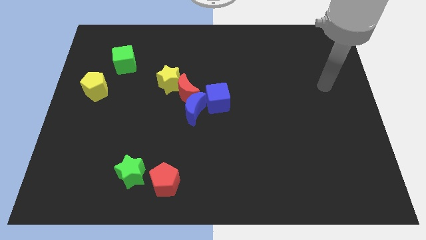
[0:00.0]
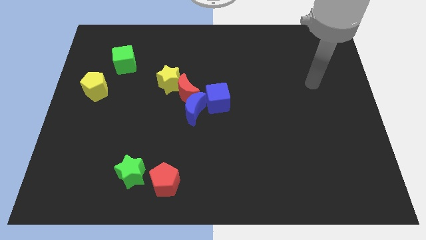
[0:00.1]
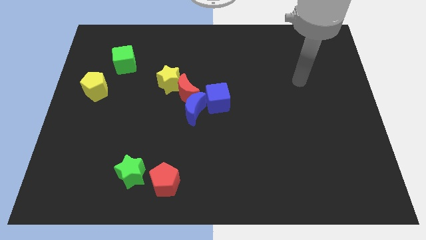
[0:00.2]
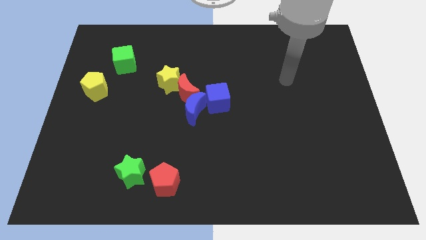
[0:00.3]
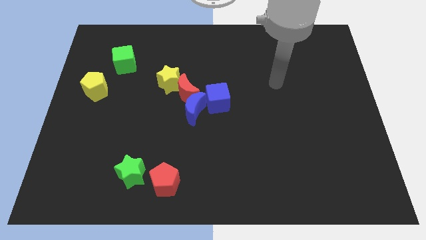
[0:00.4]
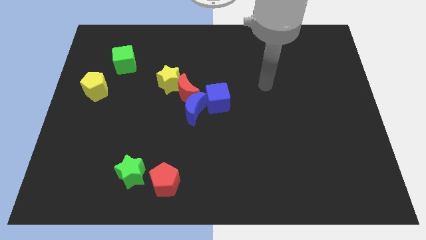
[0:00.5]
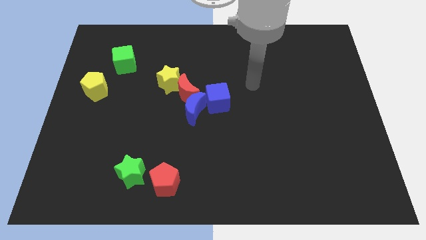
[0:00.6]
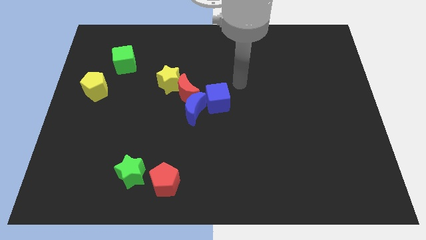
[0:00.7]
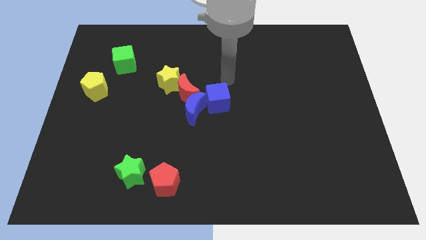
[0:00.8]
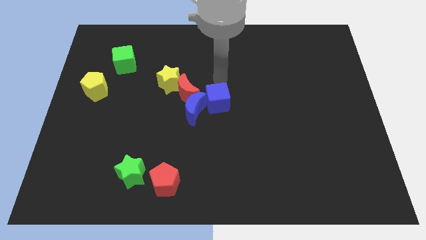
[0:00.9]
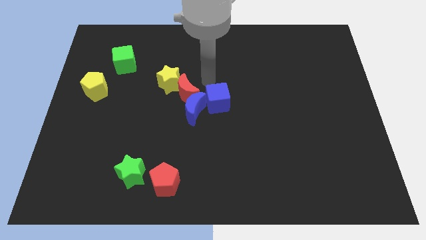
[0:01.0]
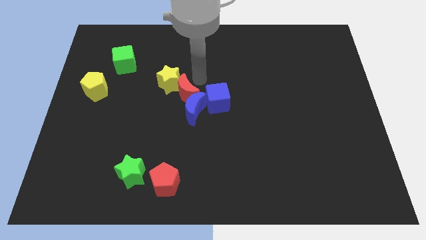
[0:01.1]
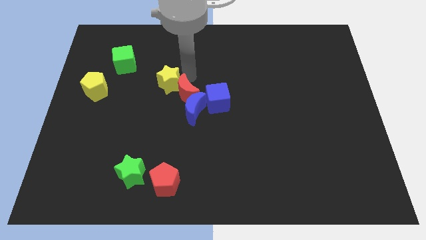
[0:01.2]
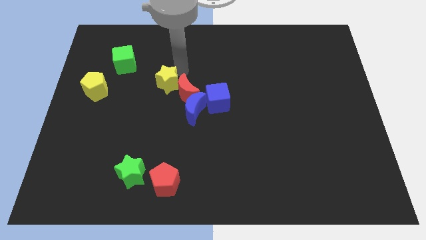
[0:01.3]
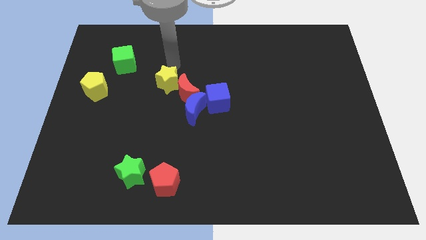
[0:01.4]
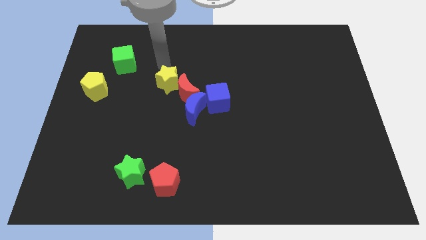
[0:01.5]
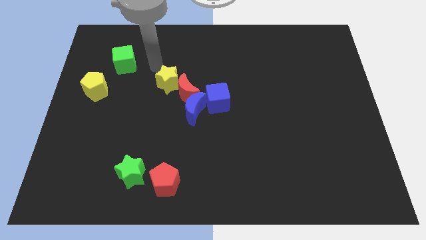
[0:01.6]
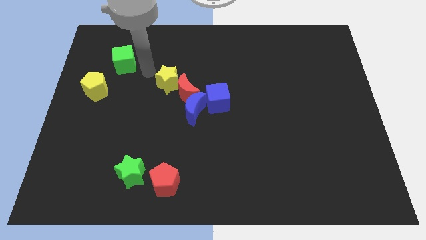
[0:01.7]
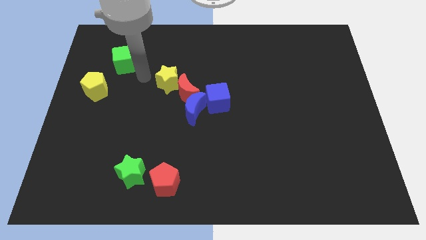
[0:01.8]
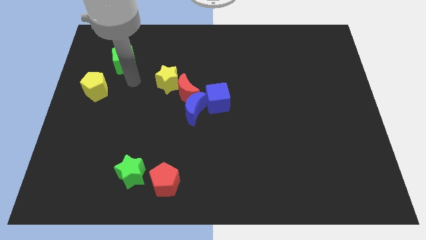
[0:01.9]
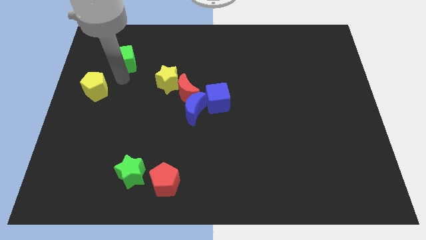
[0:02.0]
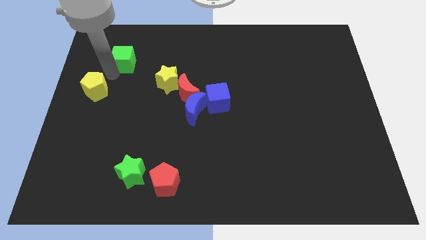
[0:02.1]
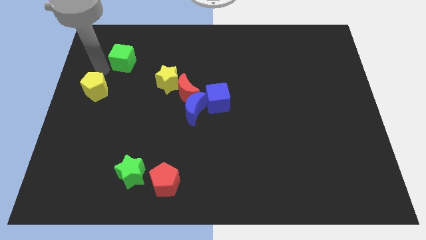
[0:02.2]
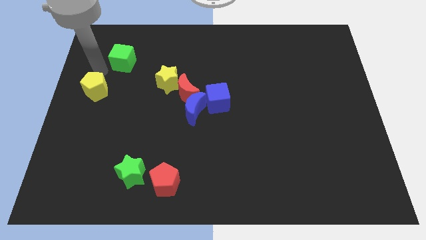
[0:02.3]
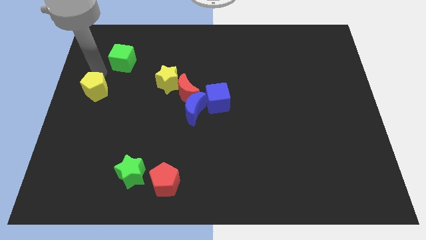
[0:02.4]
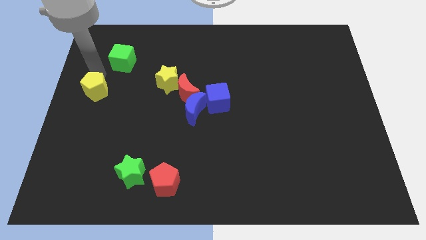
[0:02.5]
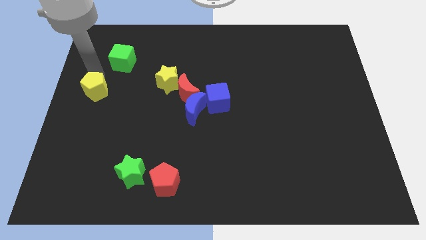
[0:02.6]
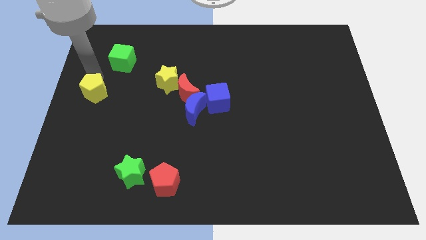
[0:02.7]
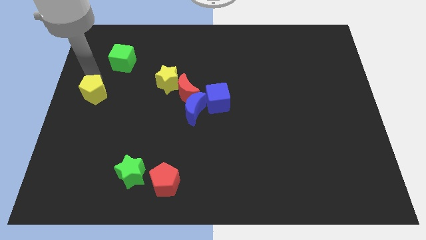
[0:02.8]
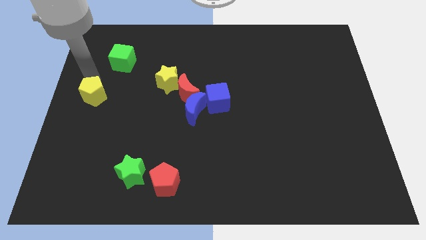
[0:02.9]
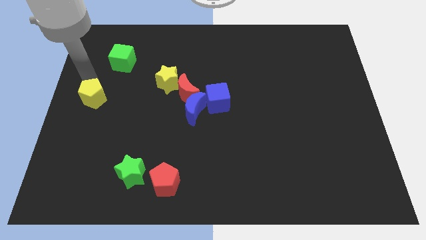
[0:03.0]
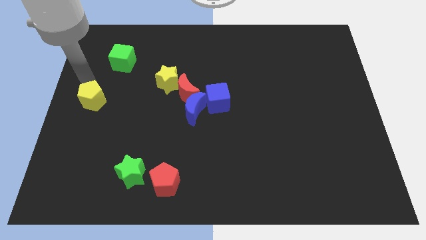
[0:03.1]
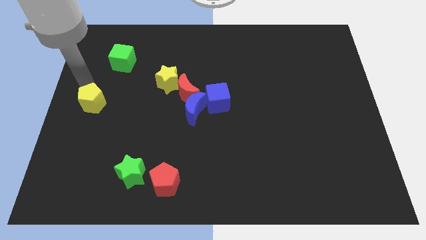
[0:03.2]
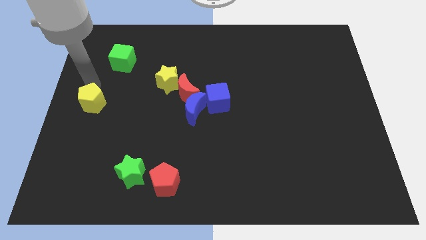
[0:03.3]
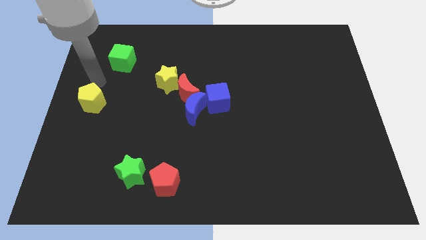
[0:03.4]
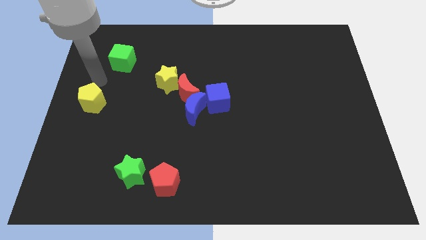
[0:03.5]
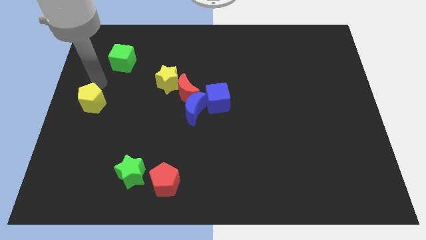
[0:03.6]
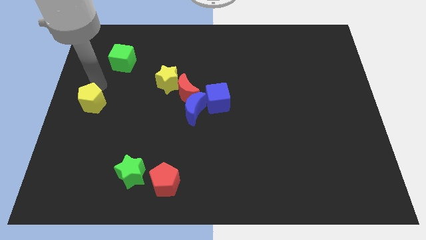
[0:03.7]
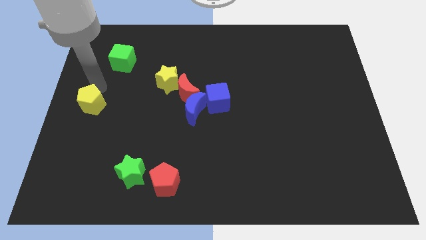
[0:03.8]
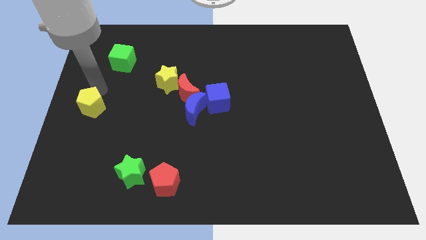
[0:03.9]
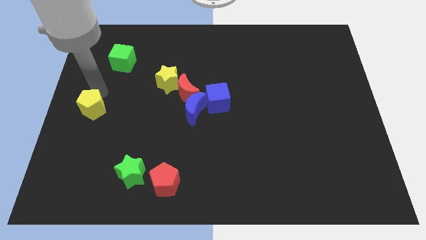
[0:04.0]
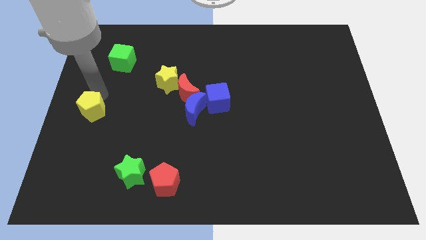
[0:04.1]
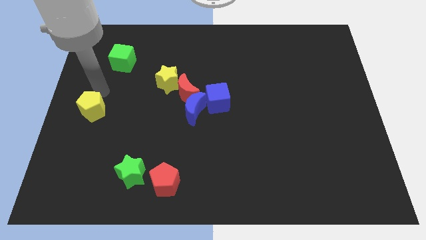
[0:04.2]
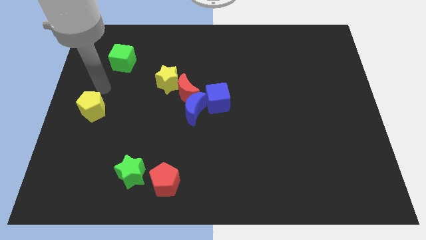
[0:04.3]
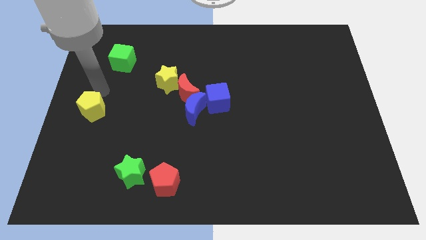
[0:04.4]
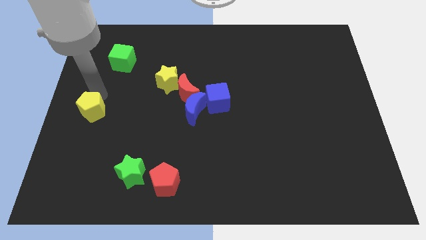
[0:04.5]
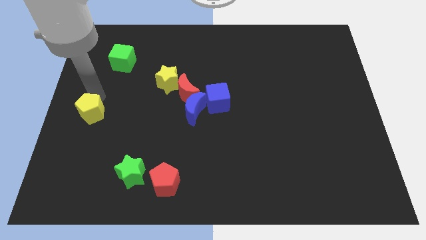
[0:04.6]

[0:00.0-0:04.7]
slightly push the yellow pentagon downwards

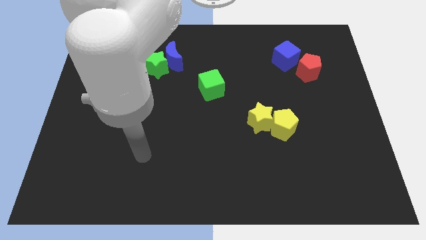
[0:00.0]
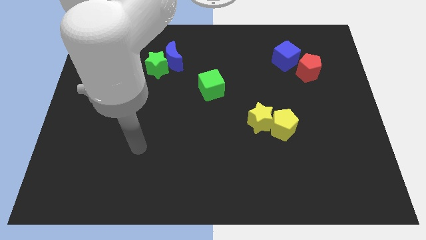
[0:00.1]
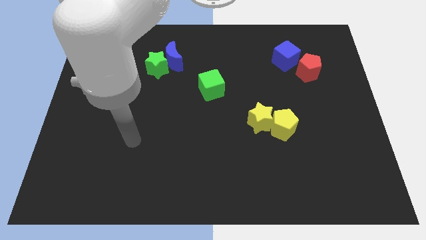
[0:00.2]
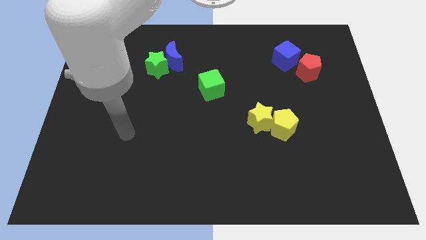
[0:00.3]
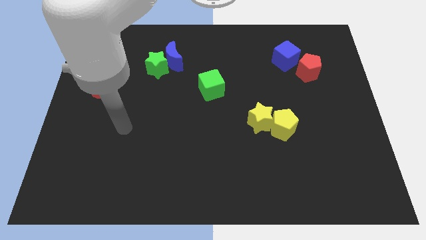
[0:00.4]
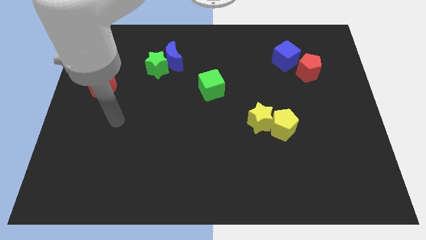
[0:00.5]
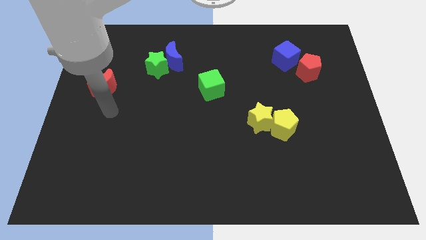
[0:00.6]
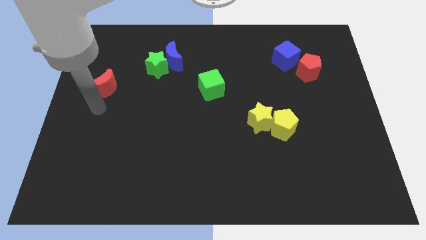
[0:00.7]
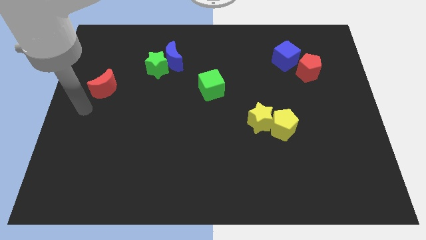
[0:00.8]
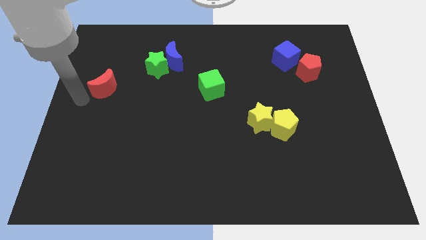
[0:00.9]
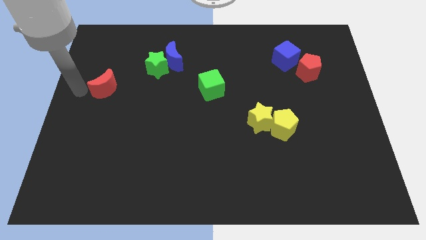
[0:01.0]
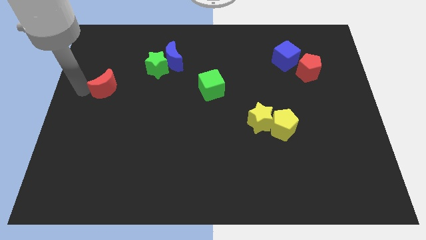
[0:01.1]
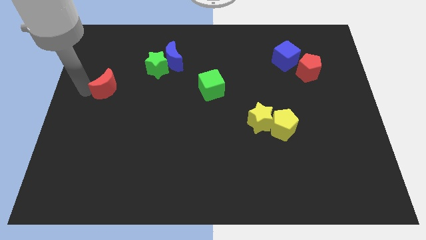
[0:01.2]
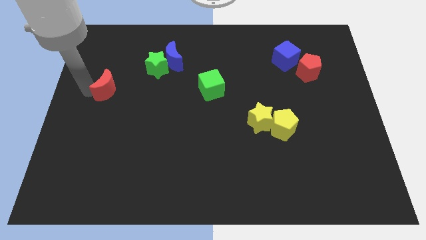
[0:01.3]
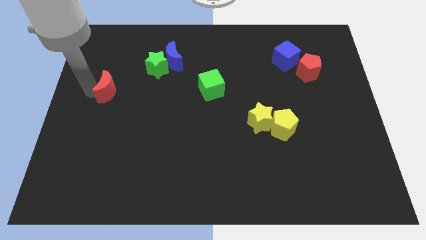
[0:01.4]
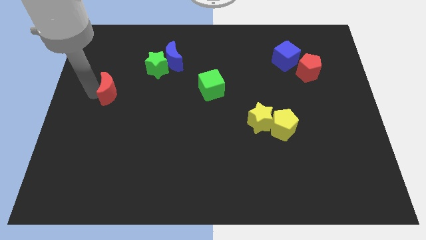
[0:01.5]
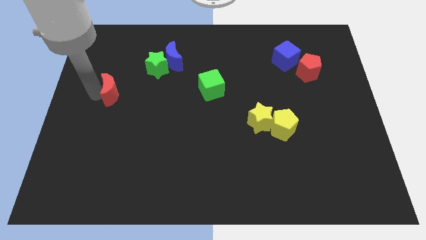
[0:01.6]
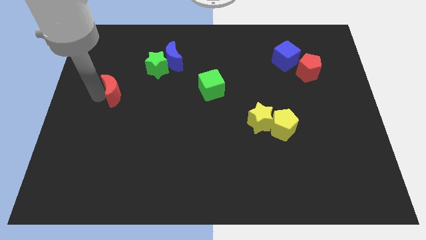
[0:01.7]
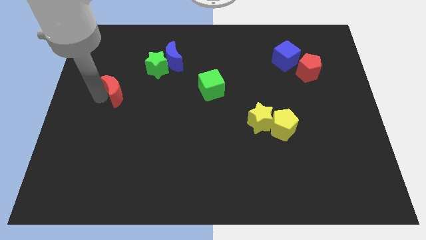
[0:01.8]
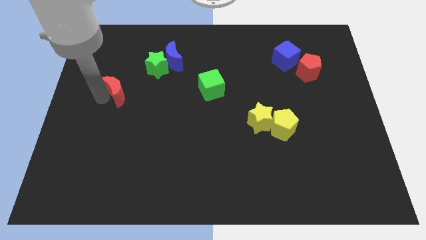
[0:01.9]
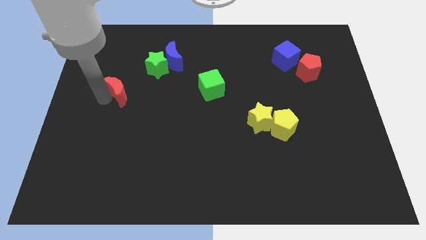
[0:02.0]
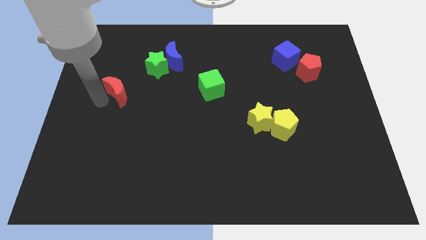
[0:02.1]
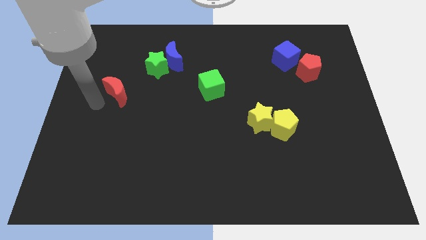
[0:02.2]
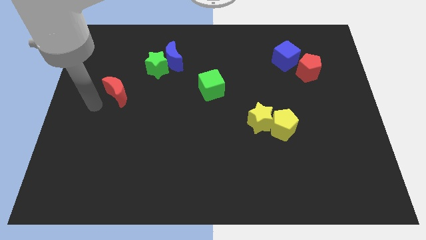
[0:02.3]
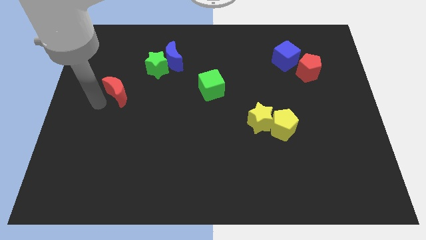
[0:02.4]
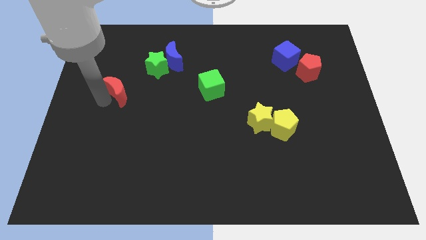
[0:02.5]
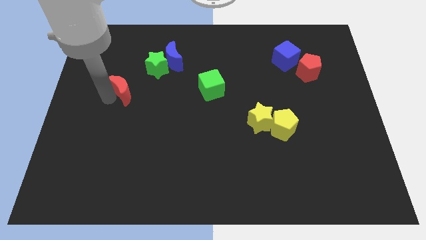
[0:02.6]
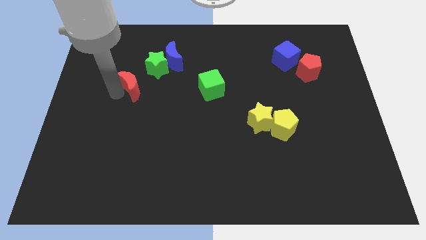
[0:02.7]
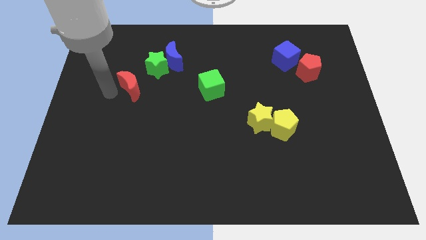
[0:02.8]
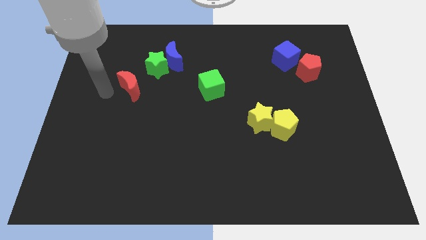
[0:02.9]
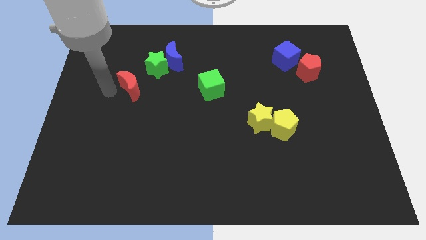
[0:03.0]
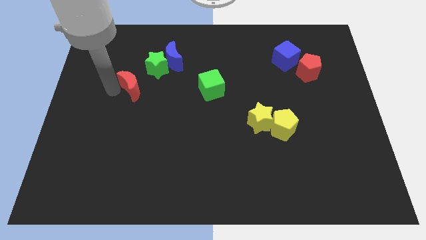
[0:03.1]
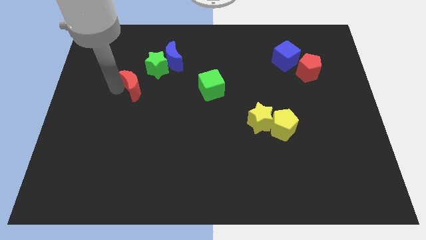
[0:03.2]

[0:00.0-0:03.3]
slightly push the red moon right
